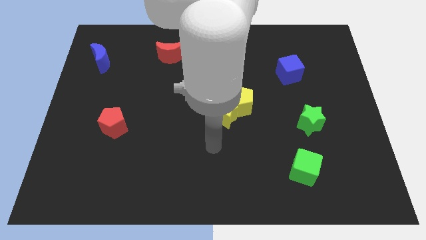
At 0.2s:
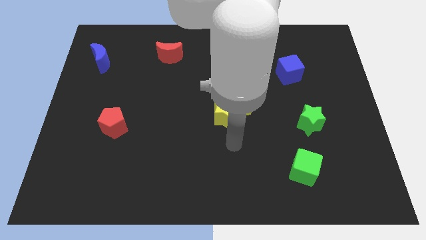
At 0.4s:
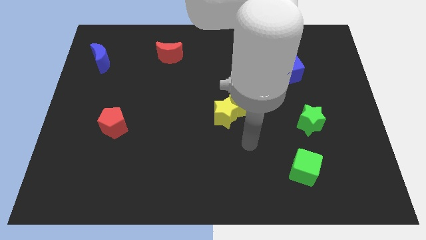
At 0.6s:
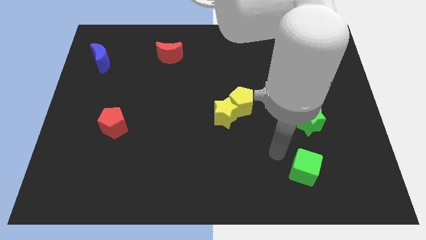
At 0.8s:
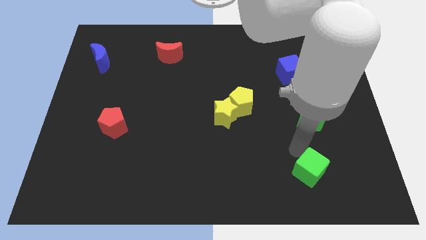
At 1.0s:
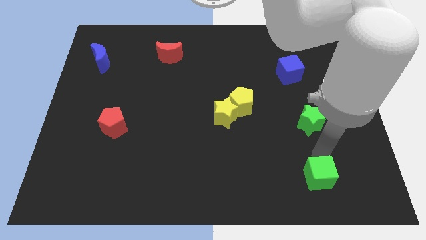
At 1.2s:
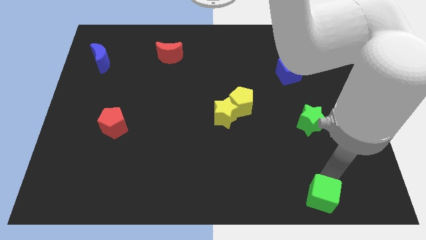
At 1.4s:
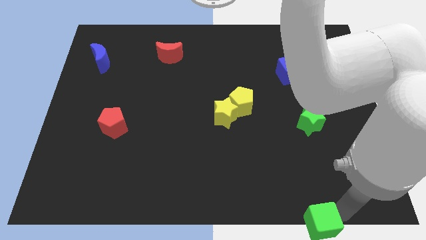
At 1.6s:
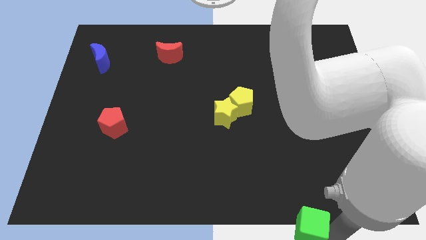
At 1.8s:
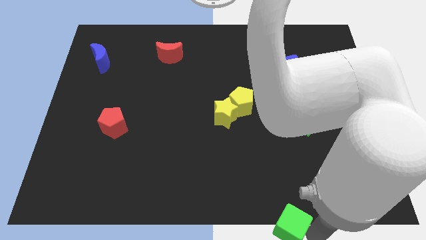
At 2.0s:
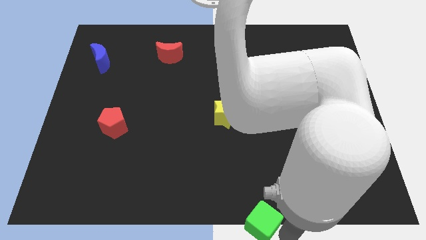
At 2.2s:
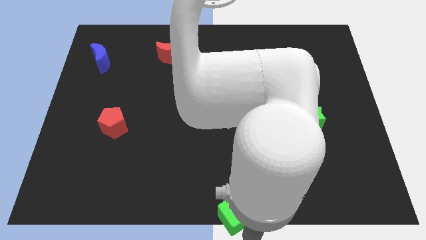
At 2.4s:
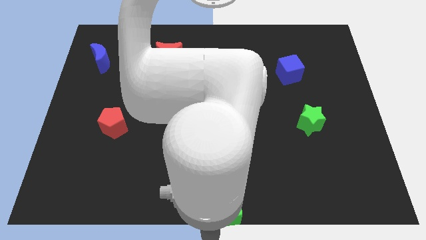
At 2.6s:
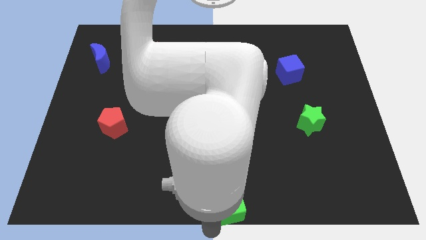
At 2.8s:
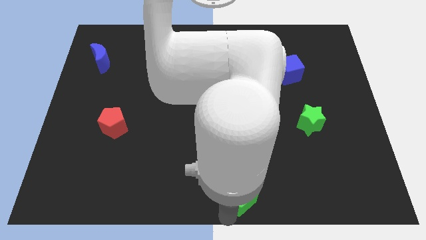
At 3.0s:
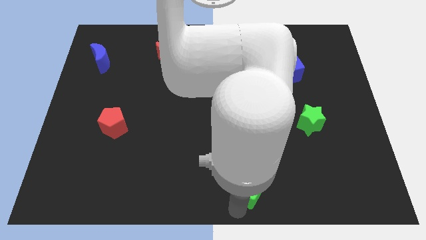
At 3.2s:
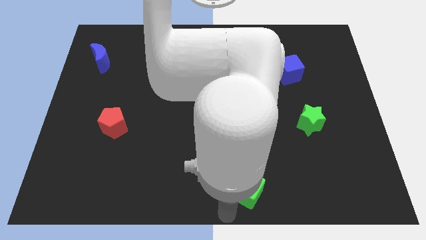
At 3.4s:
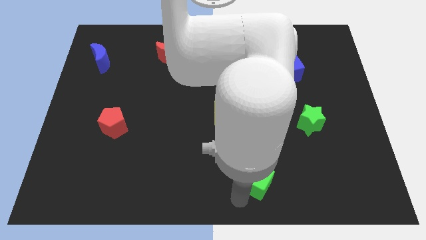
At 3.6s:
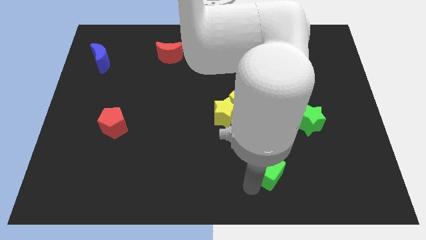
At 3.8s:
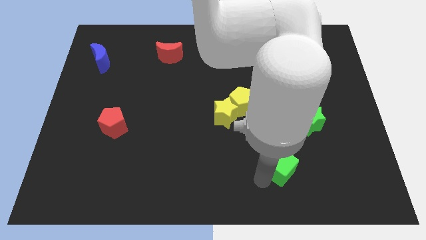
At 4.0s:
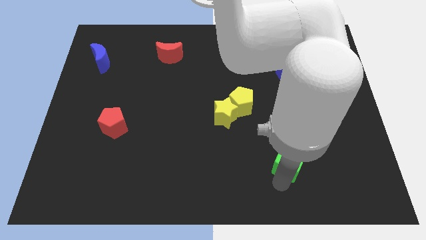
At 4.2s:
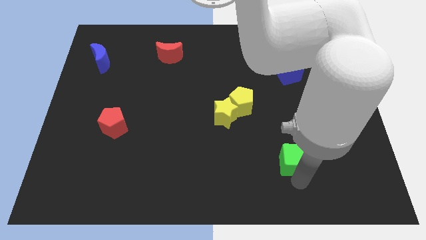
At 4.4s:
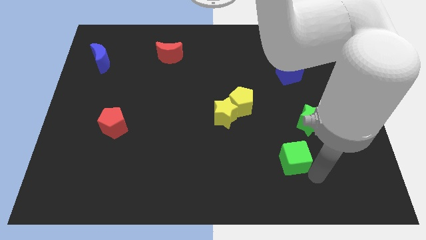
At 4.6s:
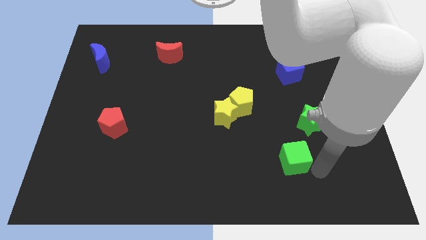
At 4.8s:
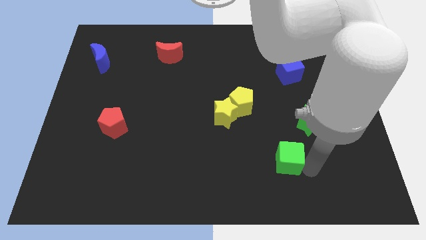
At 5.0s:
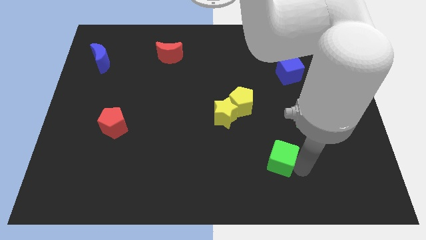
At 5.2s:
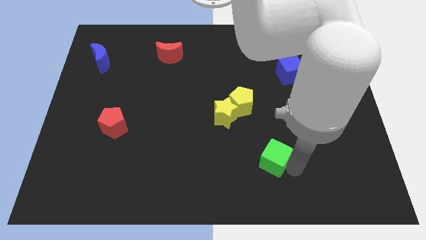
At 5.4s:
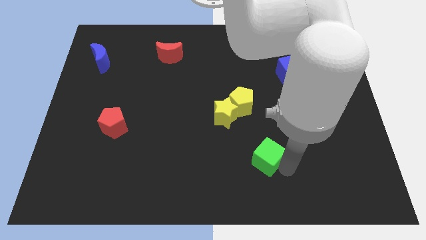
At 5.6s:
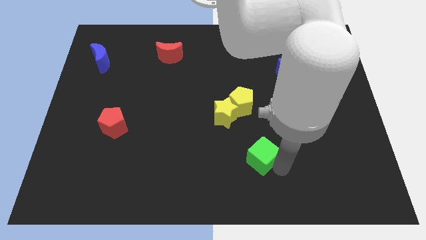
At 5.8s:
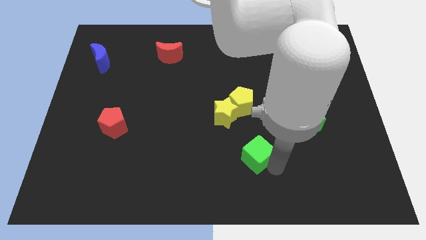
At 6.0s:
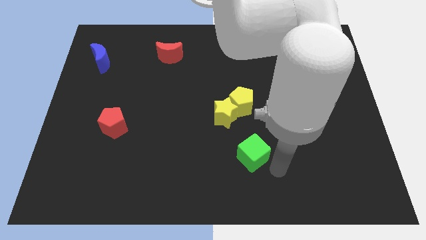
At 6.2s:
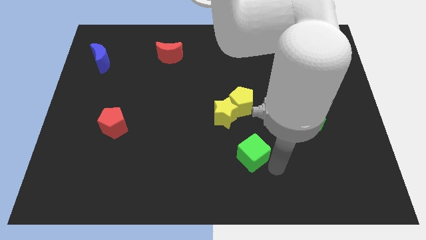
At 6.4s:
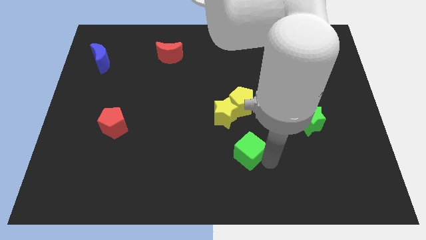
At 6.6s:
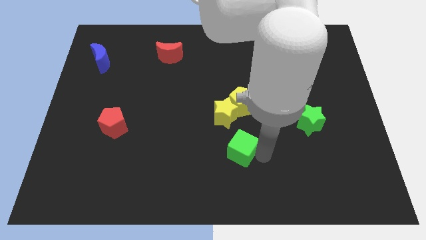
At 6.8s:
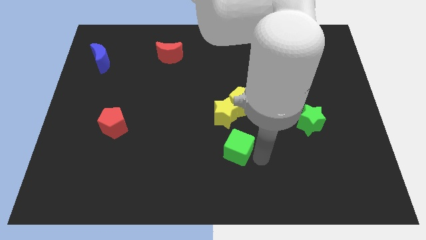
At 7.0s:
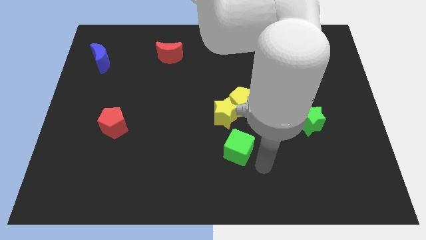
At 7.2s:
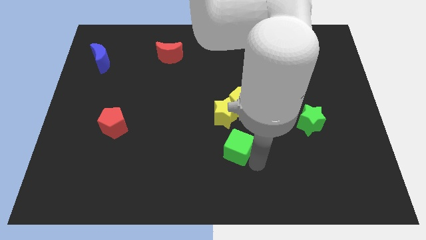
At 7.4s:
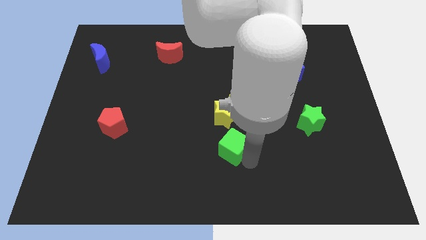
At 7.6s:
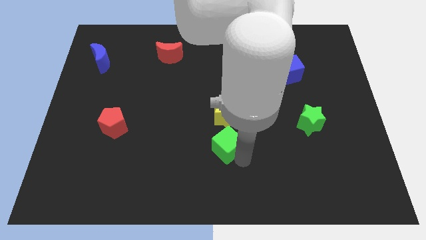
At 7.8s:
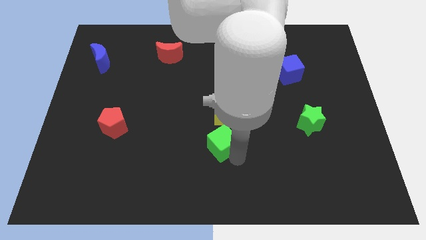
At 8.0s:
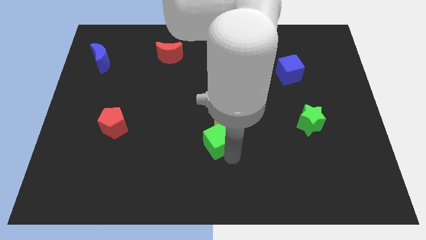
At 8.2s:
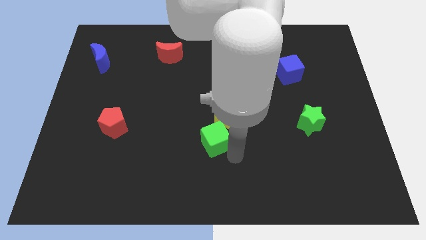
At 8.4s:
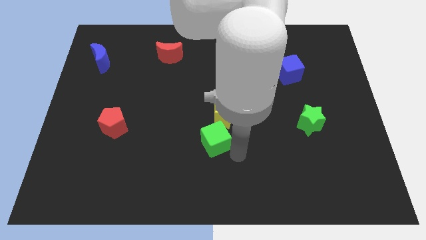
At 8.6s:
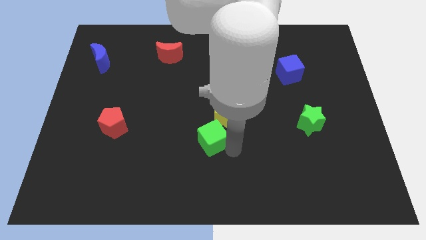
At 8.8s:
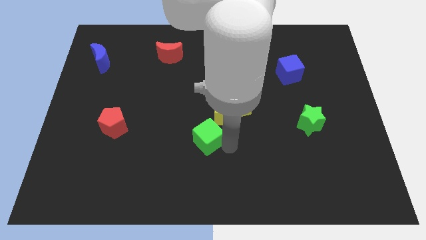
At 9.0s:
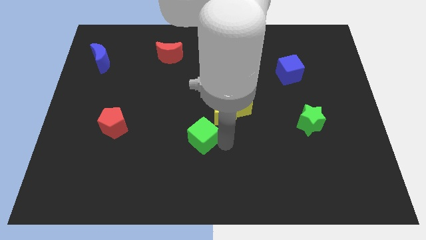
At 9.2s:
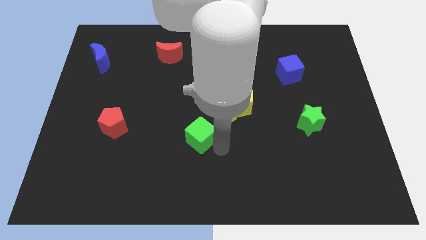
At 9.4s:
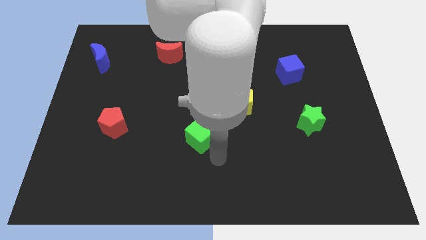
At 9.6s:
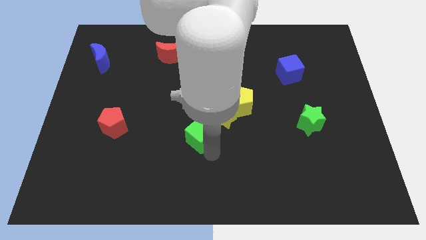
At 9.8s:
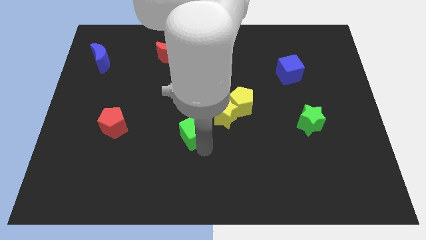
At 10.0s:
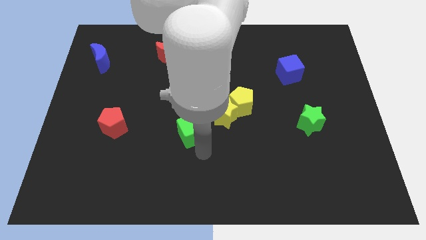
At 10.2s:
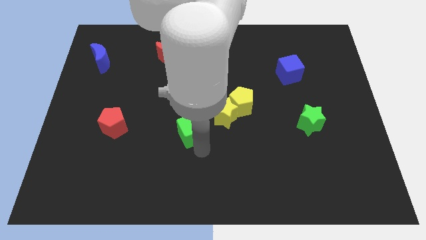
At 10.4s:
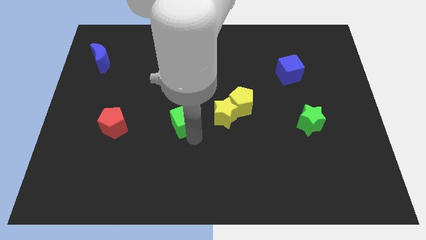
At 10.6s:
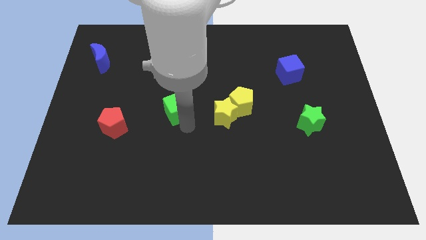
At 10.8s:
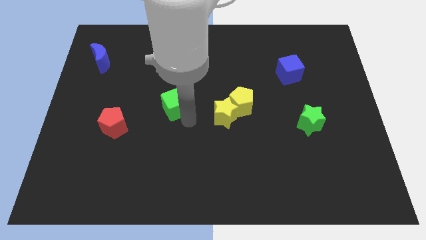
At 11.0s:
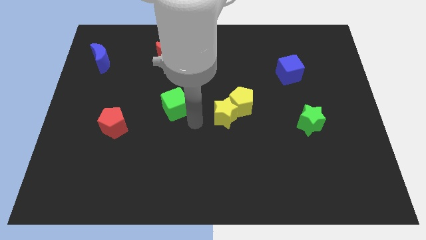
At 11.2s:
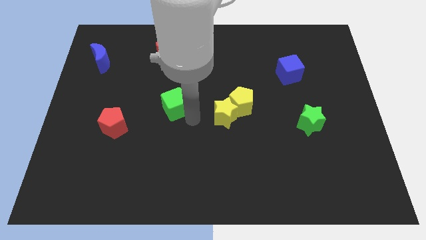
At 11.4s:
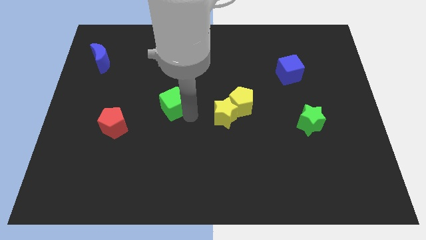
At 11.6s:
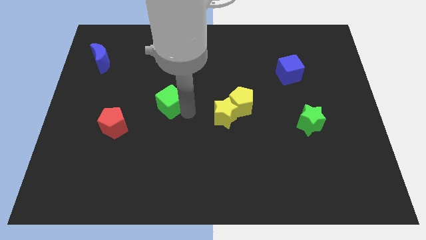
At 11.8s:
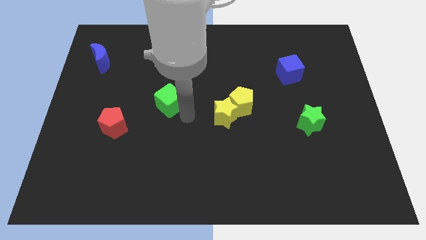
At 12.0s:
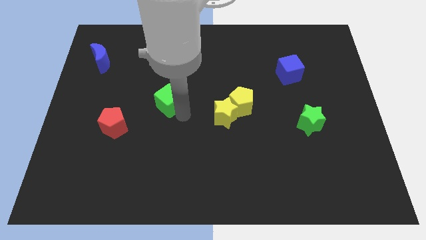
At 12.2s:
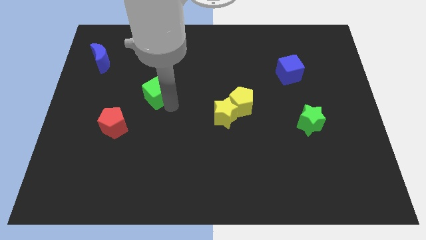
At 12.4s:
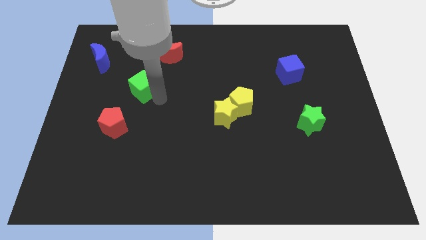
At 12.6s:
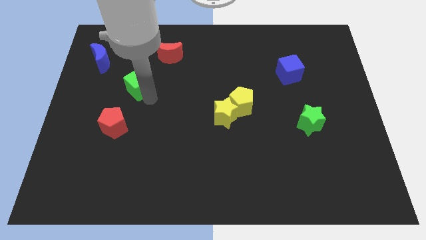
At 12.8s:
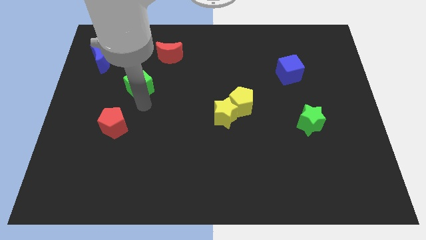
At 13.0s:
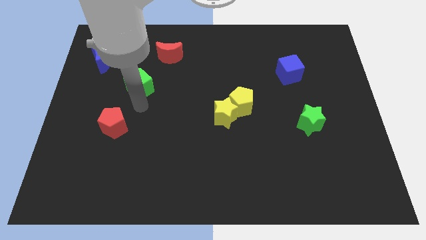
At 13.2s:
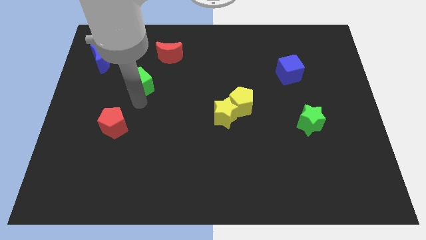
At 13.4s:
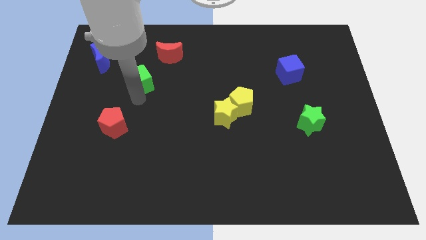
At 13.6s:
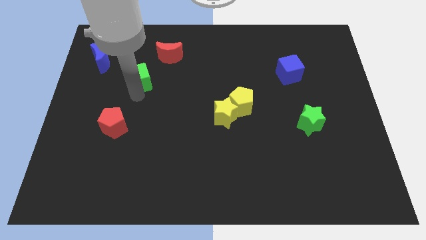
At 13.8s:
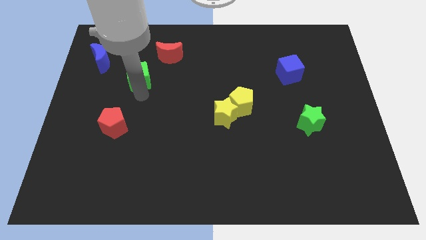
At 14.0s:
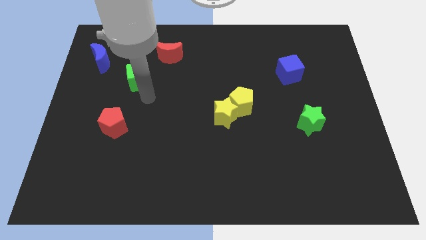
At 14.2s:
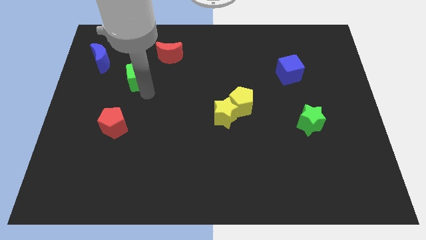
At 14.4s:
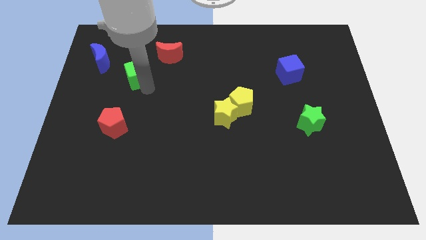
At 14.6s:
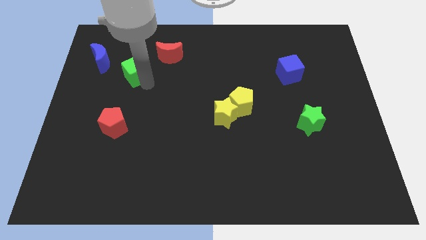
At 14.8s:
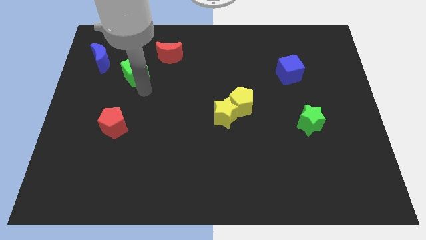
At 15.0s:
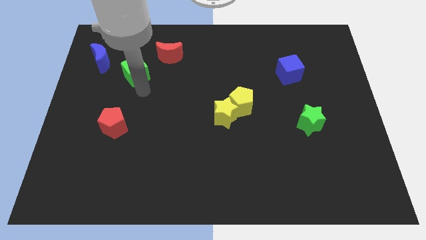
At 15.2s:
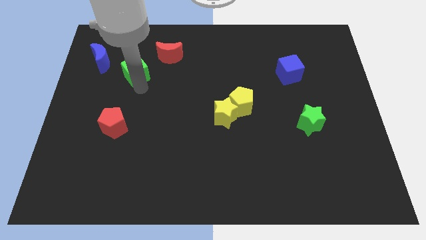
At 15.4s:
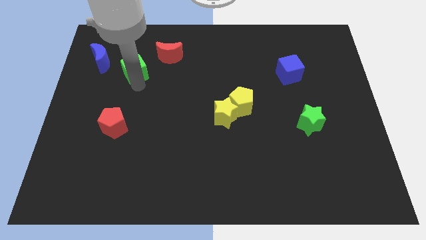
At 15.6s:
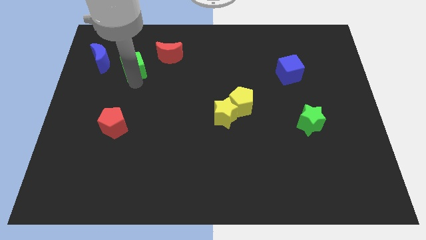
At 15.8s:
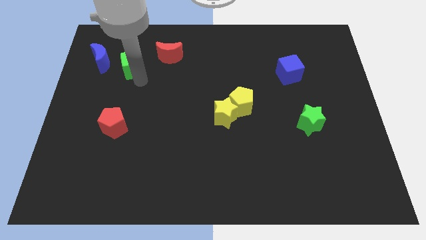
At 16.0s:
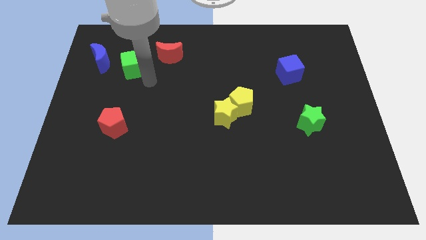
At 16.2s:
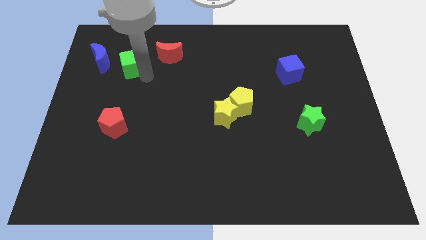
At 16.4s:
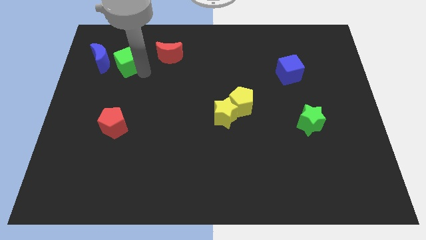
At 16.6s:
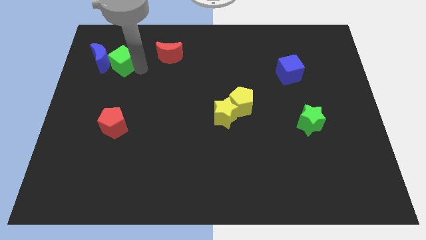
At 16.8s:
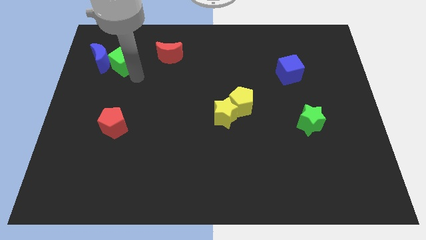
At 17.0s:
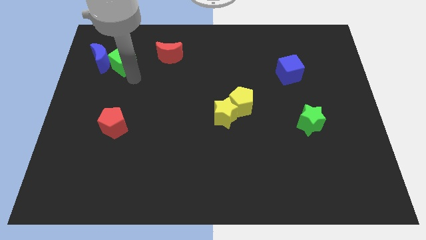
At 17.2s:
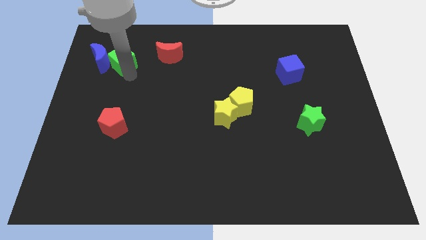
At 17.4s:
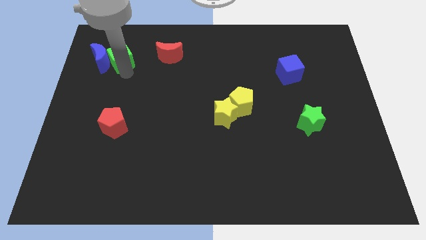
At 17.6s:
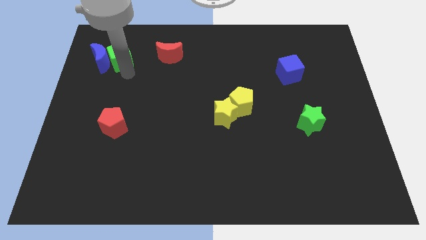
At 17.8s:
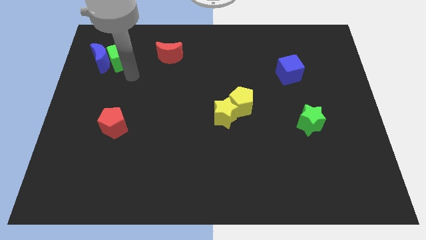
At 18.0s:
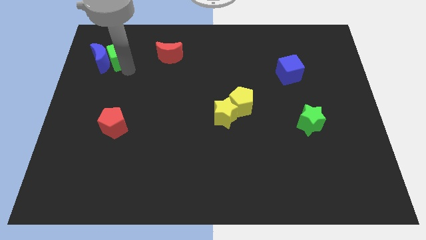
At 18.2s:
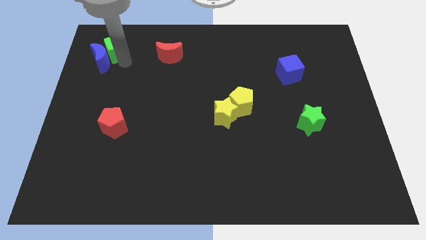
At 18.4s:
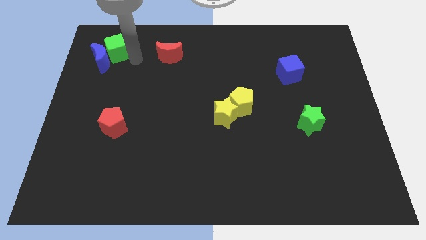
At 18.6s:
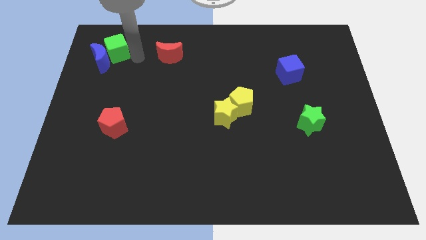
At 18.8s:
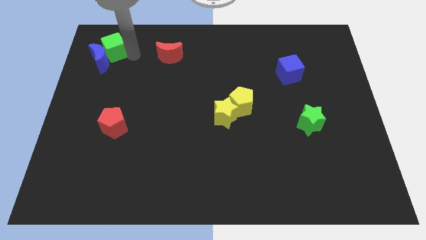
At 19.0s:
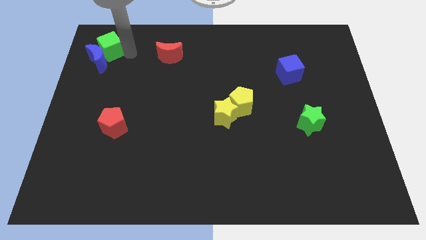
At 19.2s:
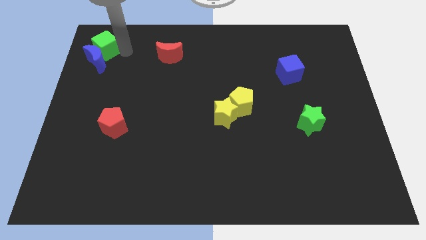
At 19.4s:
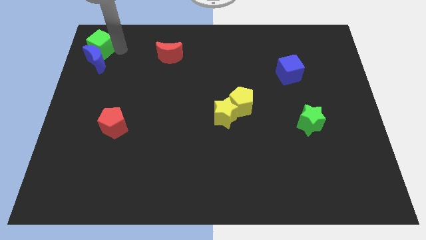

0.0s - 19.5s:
put the green cube to the top left corner
